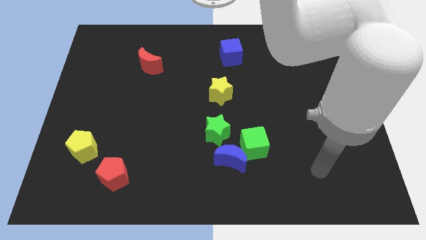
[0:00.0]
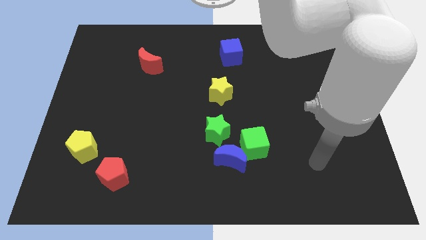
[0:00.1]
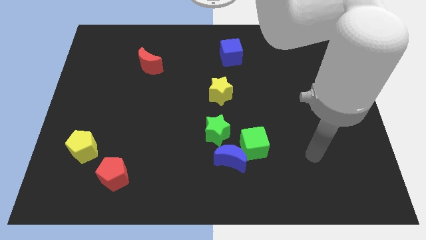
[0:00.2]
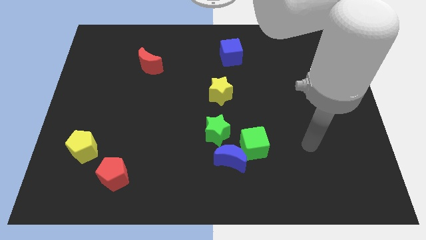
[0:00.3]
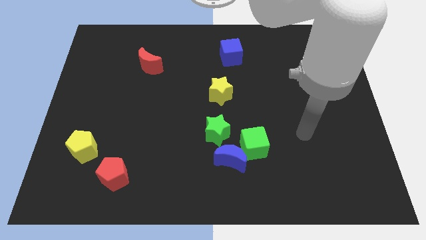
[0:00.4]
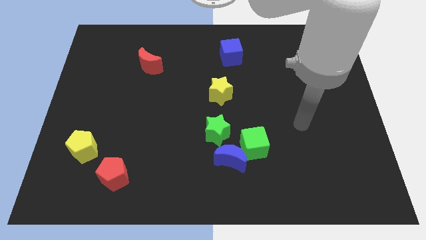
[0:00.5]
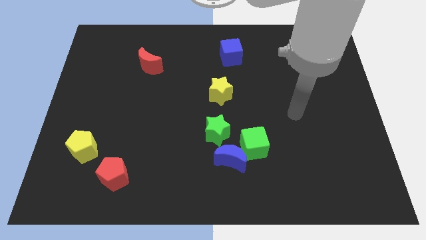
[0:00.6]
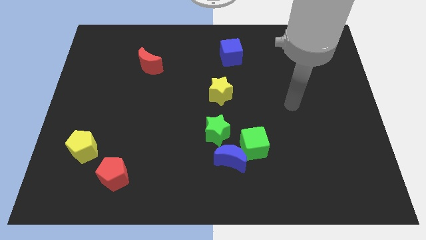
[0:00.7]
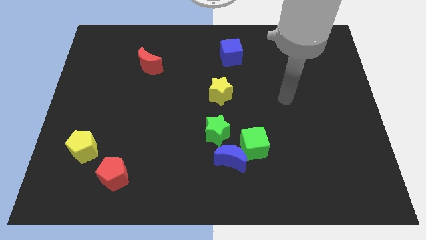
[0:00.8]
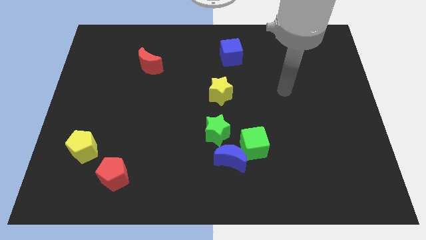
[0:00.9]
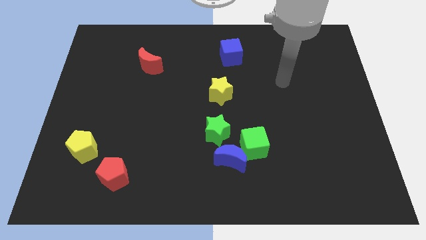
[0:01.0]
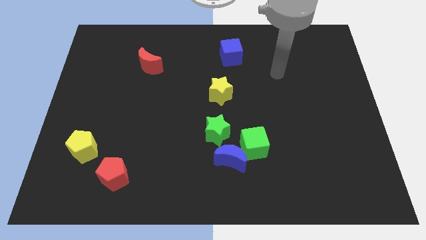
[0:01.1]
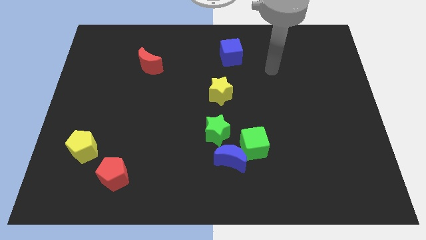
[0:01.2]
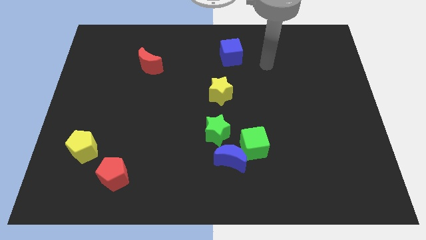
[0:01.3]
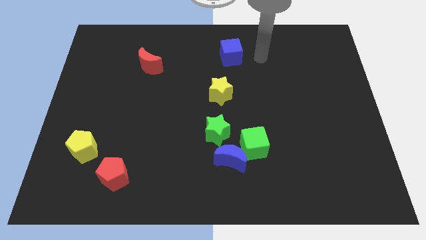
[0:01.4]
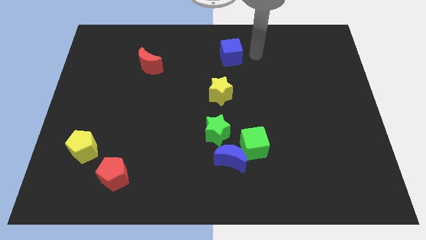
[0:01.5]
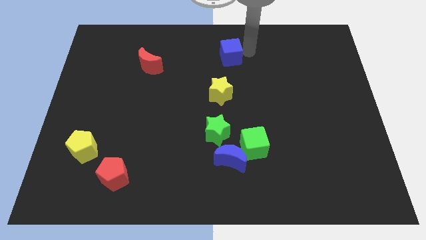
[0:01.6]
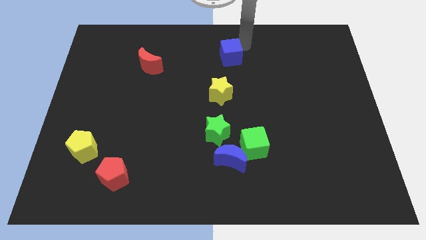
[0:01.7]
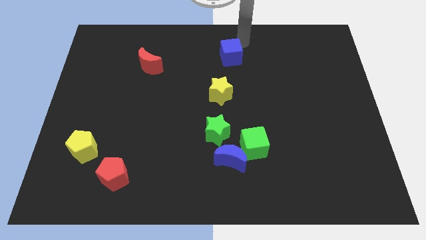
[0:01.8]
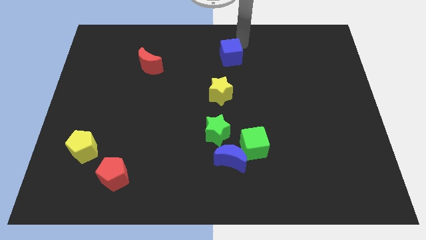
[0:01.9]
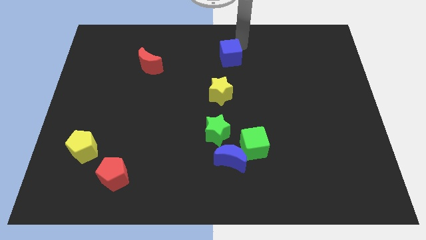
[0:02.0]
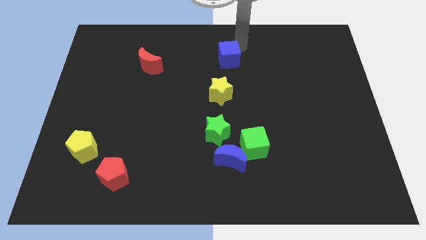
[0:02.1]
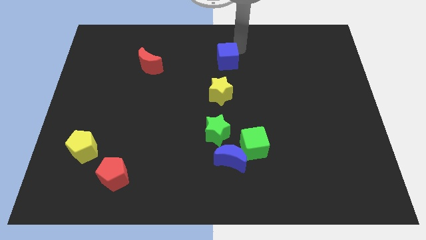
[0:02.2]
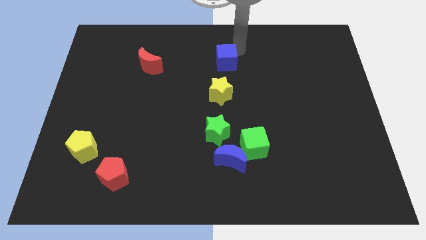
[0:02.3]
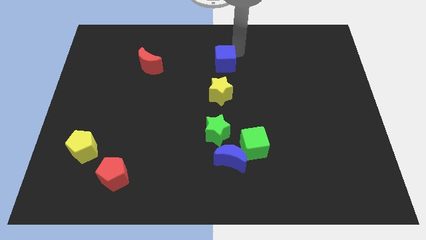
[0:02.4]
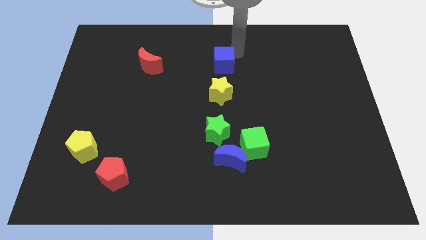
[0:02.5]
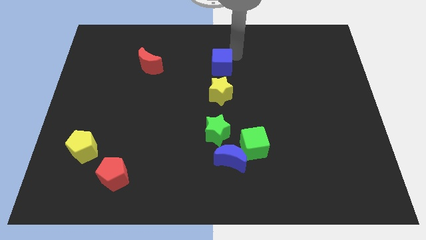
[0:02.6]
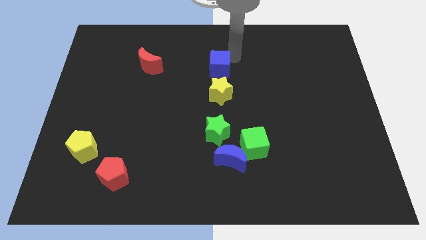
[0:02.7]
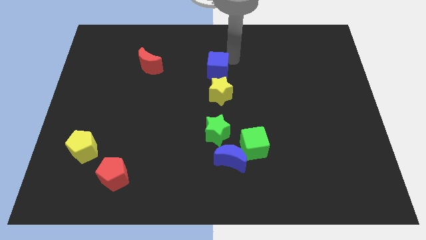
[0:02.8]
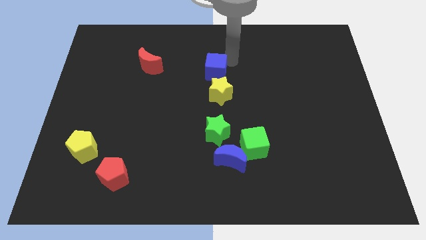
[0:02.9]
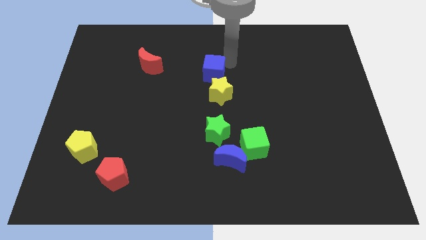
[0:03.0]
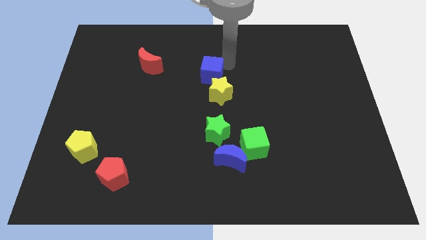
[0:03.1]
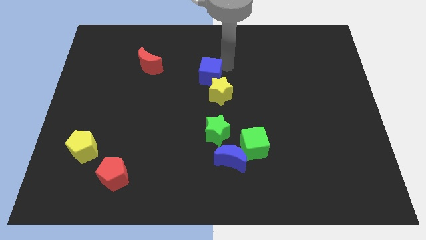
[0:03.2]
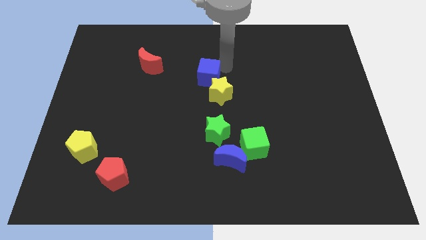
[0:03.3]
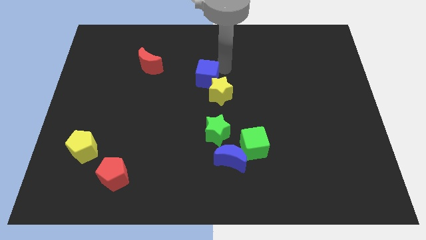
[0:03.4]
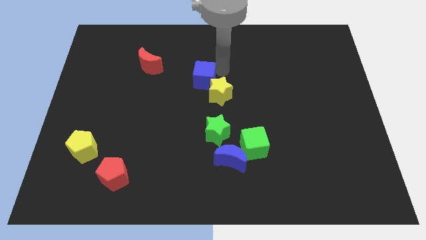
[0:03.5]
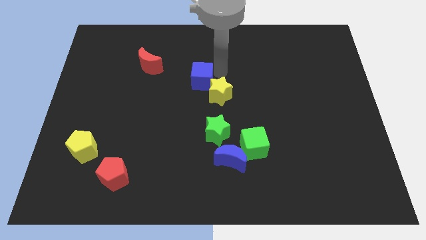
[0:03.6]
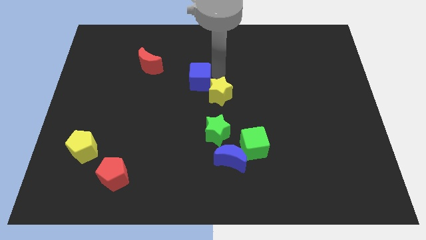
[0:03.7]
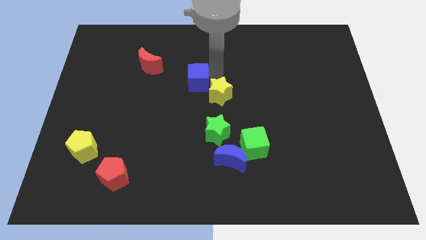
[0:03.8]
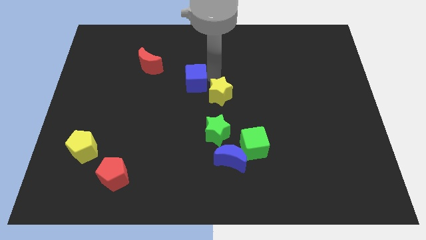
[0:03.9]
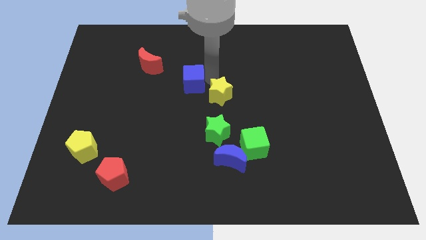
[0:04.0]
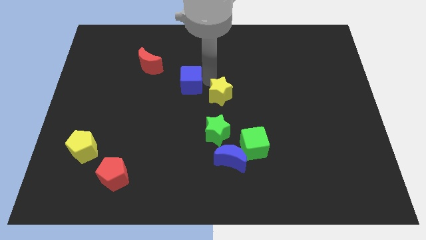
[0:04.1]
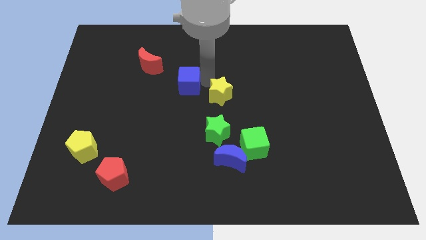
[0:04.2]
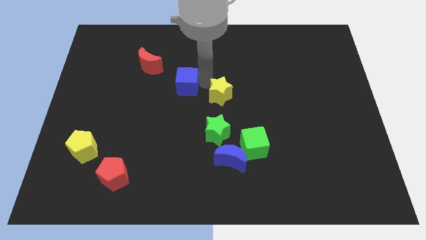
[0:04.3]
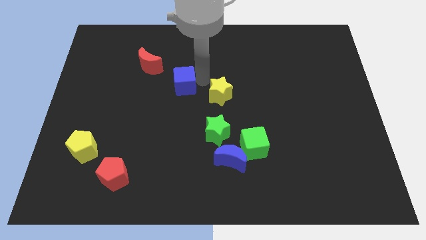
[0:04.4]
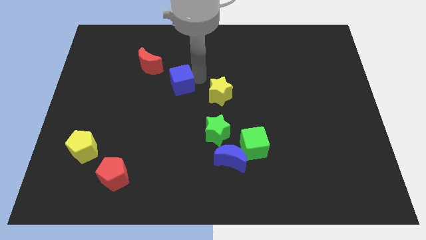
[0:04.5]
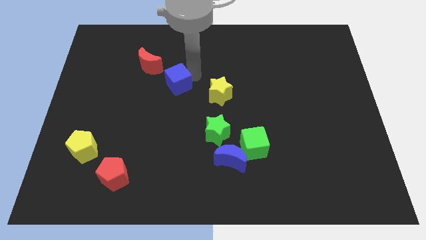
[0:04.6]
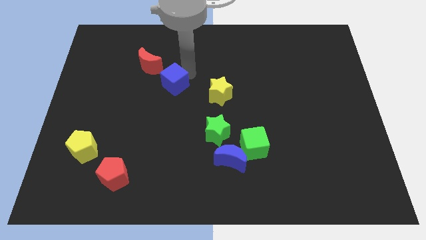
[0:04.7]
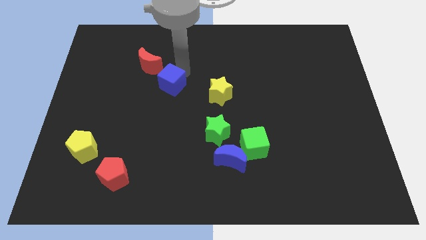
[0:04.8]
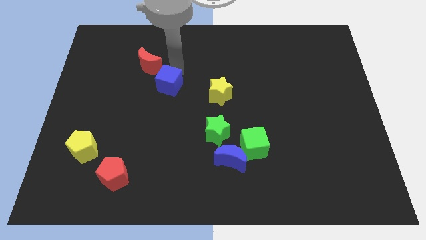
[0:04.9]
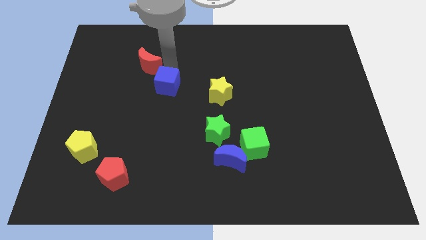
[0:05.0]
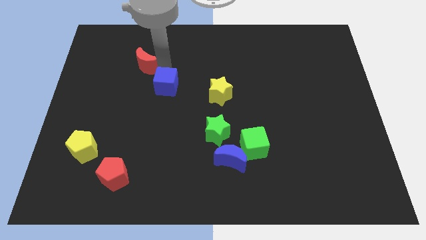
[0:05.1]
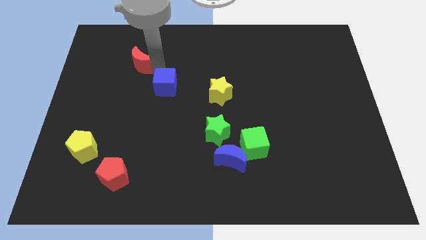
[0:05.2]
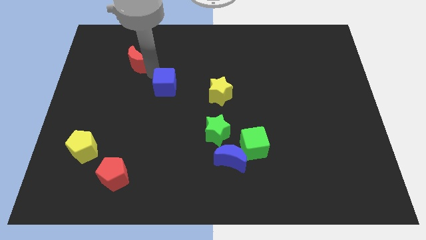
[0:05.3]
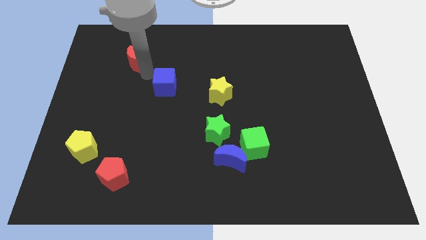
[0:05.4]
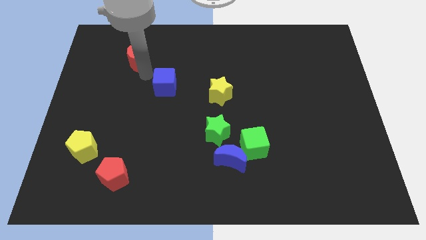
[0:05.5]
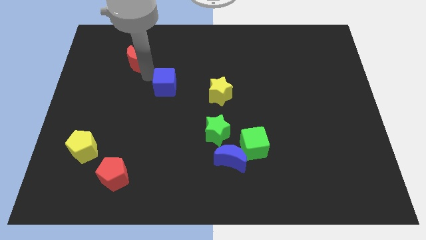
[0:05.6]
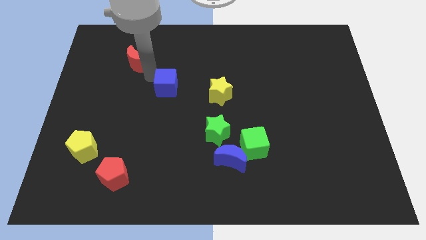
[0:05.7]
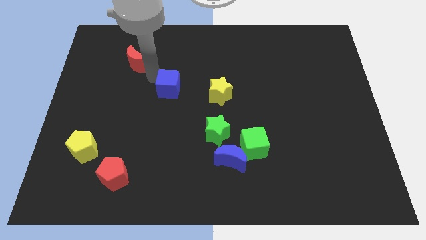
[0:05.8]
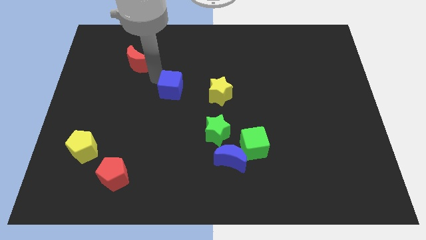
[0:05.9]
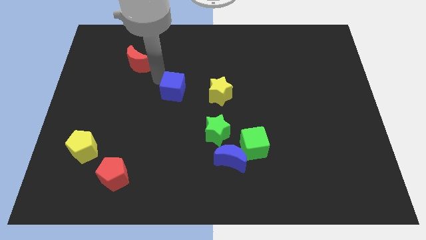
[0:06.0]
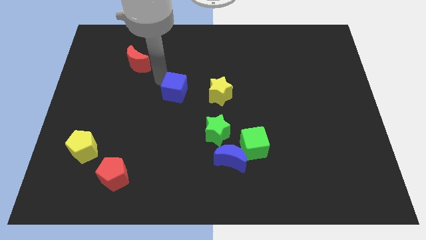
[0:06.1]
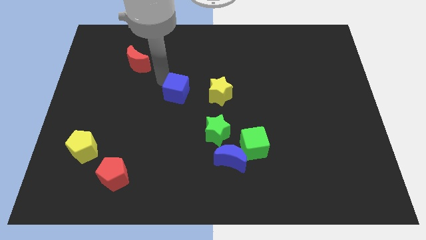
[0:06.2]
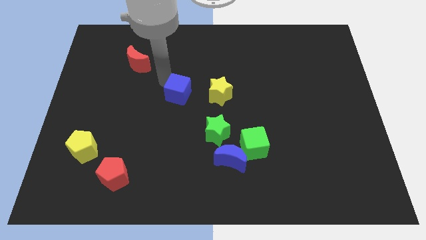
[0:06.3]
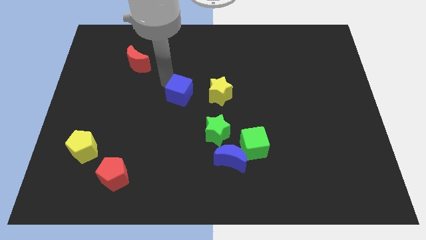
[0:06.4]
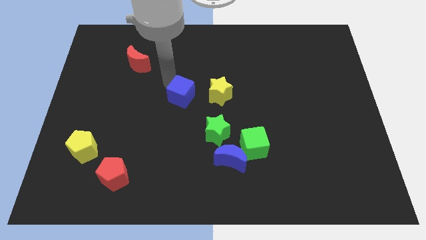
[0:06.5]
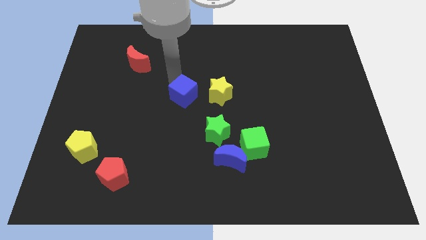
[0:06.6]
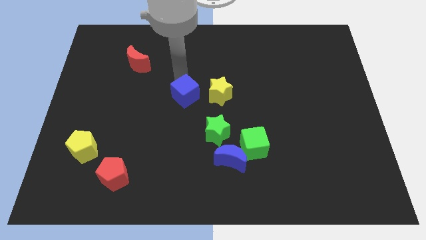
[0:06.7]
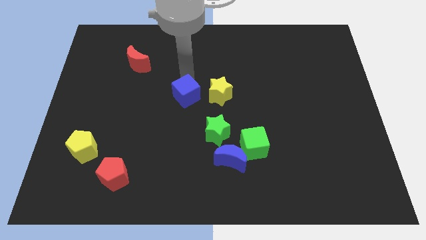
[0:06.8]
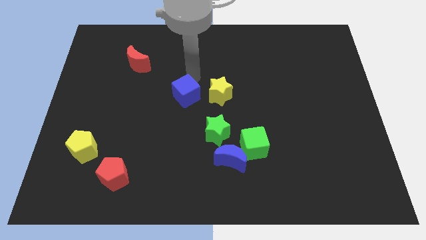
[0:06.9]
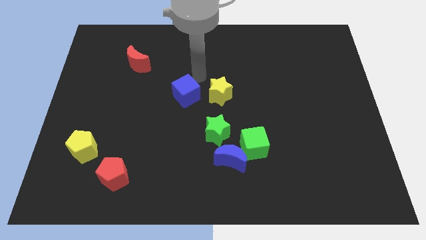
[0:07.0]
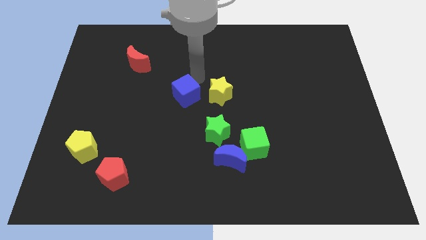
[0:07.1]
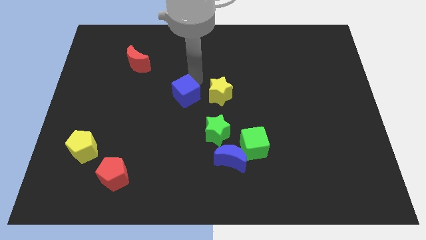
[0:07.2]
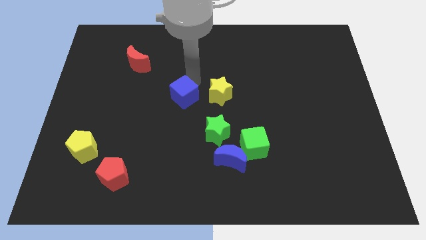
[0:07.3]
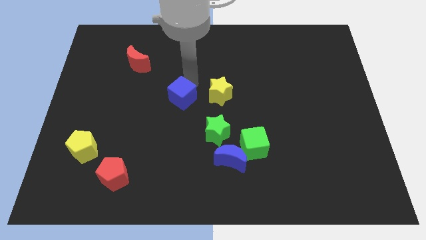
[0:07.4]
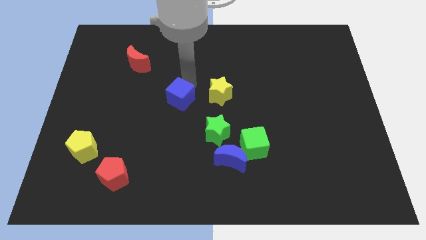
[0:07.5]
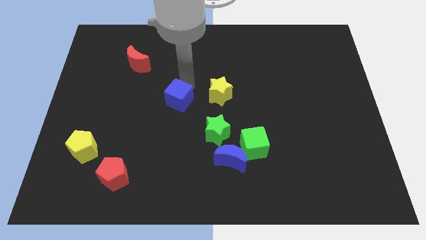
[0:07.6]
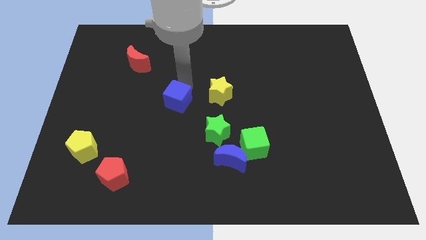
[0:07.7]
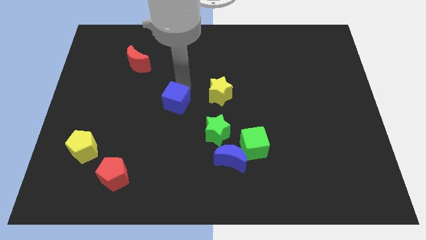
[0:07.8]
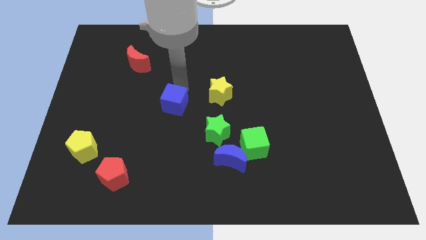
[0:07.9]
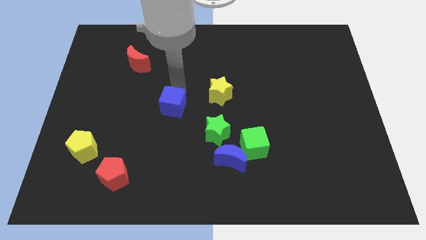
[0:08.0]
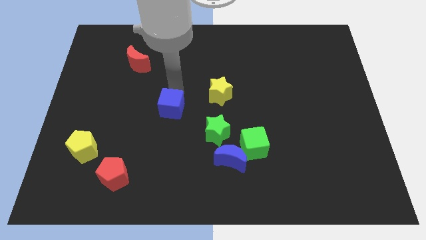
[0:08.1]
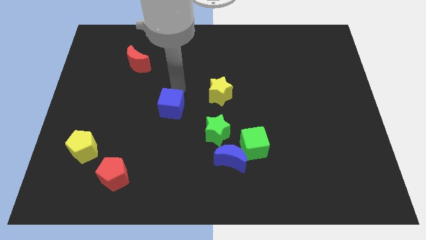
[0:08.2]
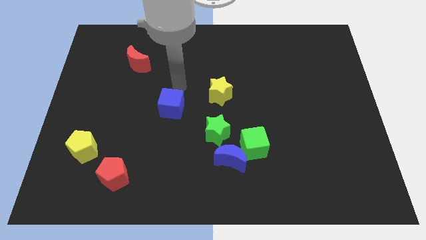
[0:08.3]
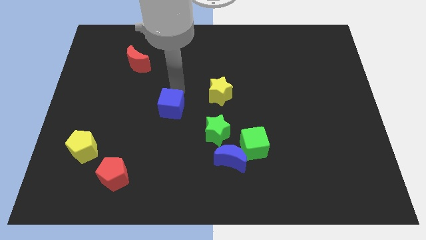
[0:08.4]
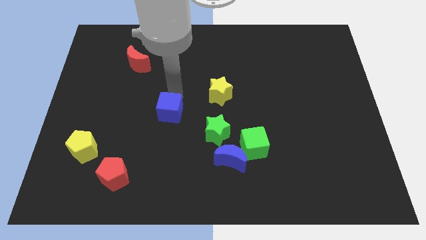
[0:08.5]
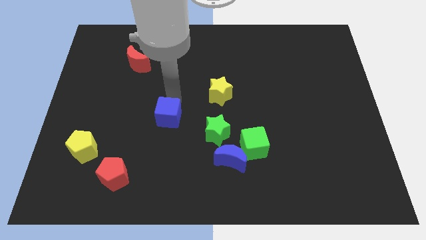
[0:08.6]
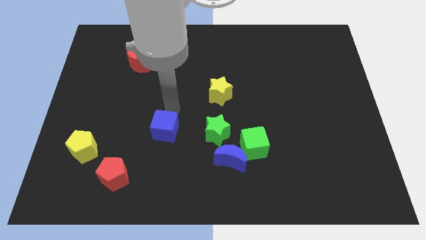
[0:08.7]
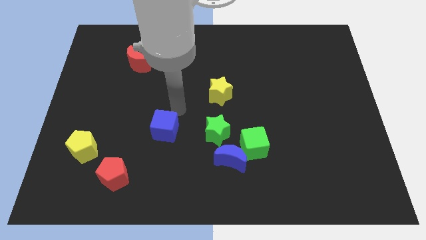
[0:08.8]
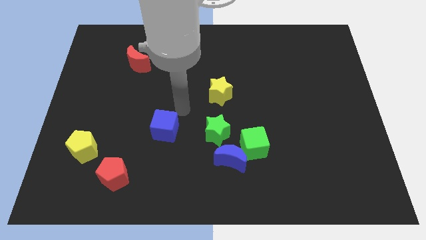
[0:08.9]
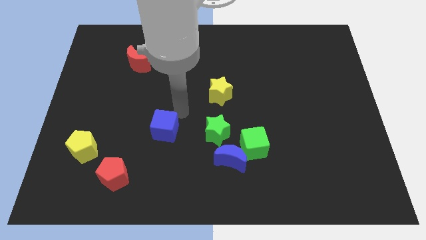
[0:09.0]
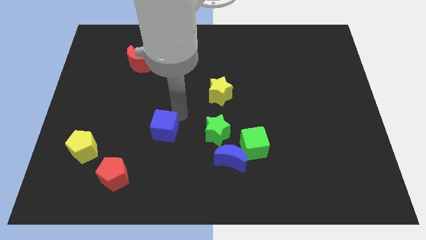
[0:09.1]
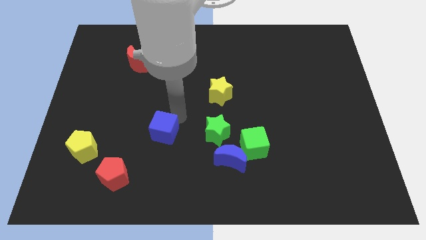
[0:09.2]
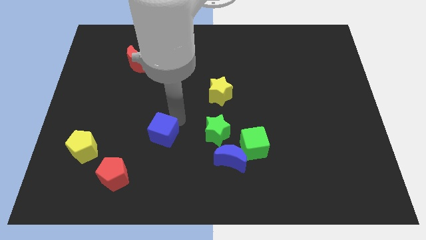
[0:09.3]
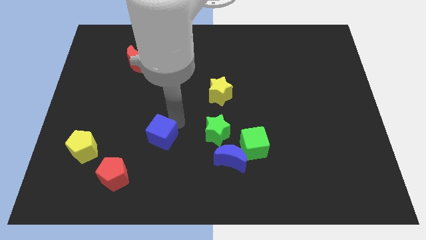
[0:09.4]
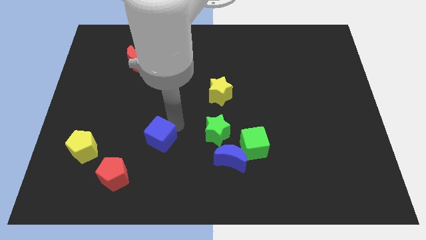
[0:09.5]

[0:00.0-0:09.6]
put the blue cube diagonally up and to the right of the red pentagon
